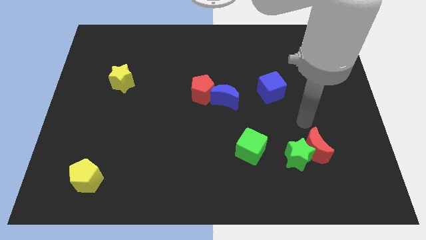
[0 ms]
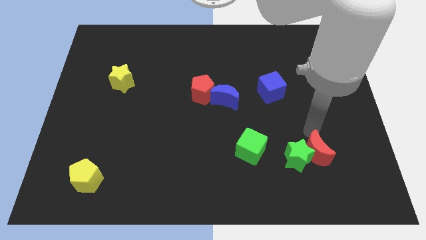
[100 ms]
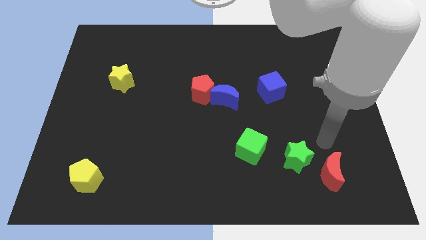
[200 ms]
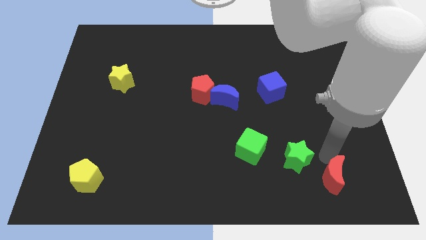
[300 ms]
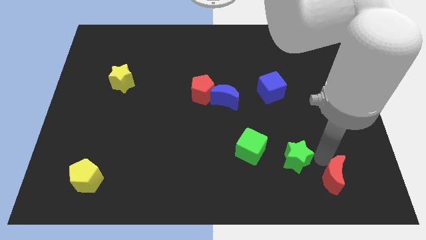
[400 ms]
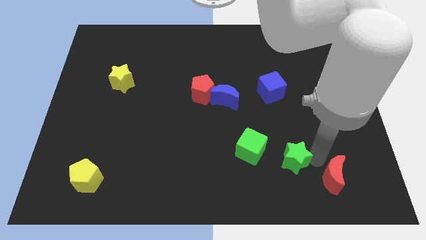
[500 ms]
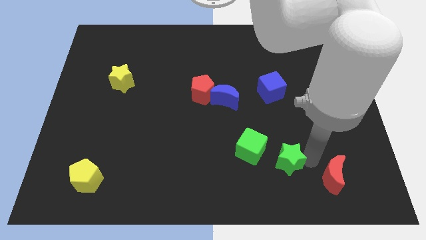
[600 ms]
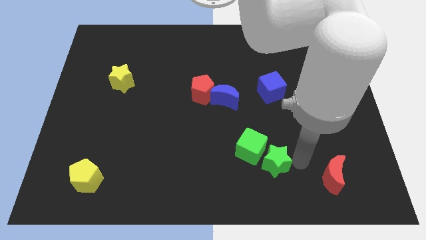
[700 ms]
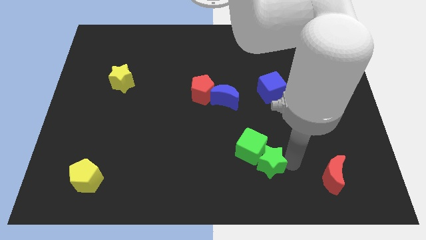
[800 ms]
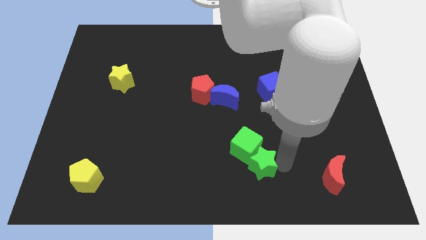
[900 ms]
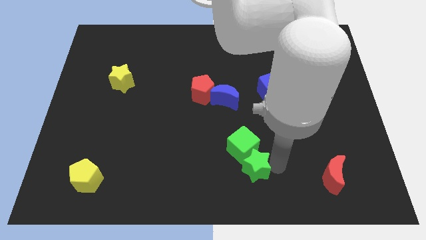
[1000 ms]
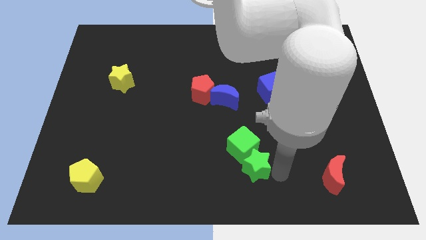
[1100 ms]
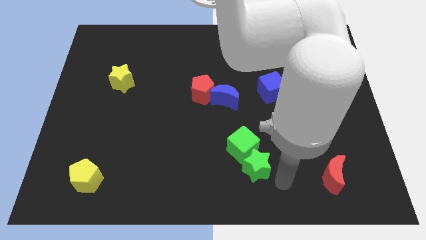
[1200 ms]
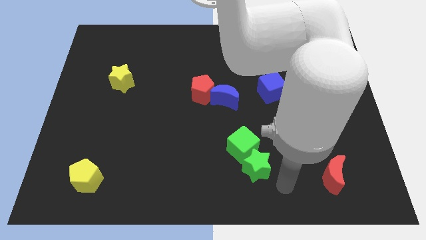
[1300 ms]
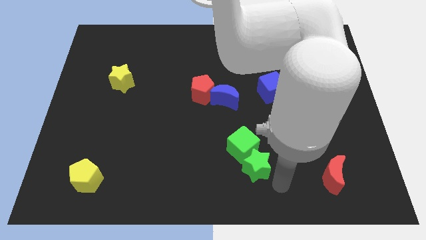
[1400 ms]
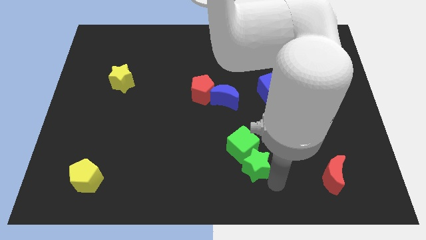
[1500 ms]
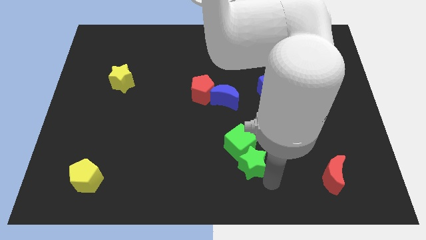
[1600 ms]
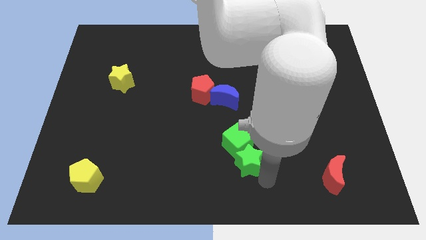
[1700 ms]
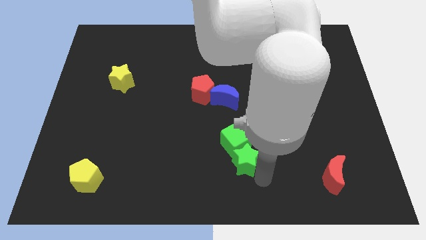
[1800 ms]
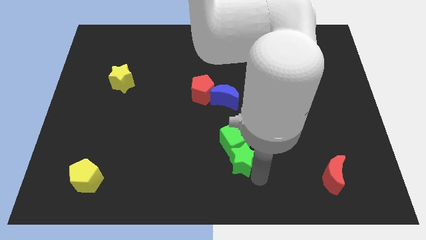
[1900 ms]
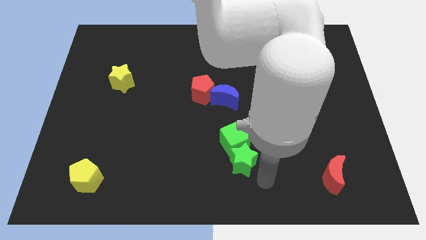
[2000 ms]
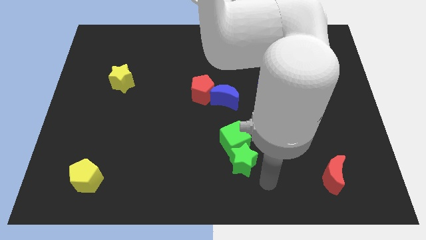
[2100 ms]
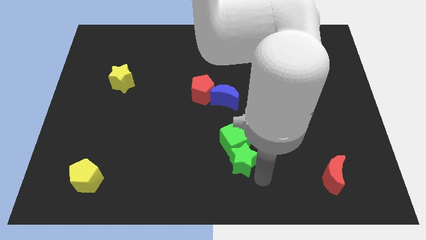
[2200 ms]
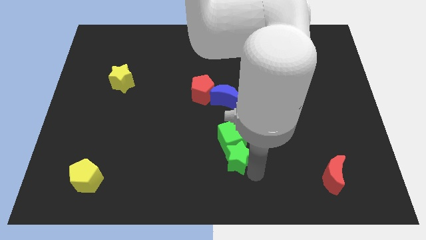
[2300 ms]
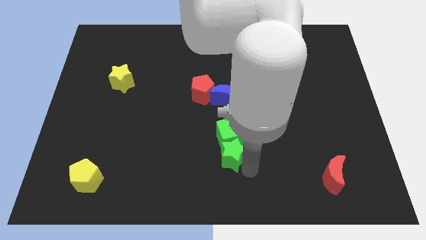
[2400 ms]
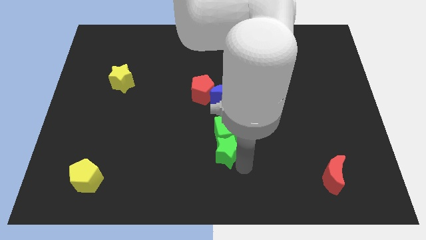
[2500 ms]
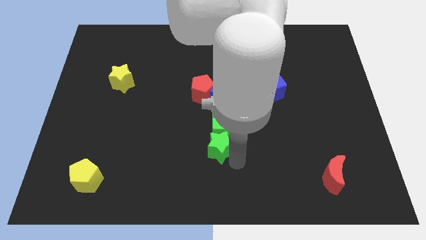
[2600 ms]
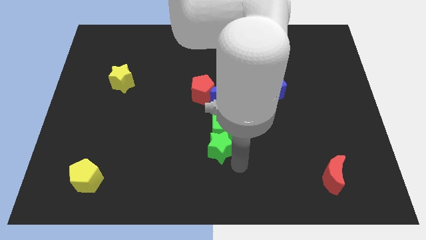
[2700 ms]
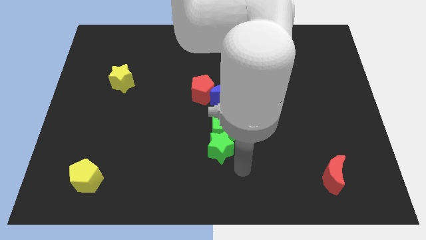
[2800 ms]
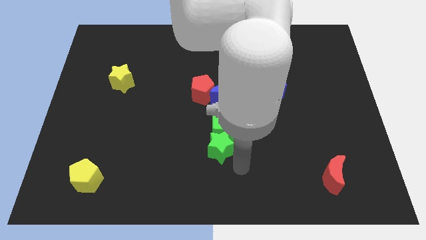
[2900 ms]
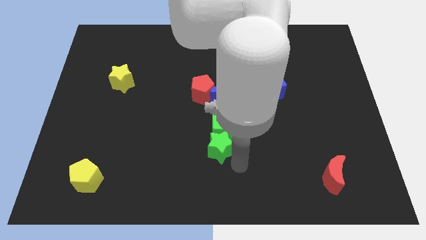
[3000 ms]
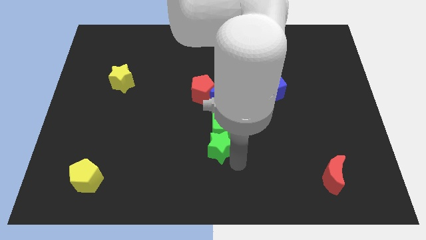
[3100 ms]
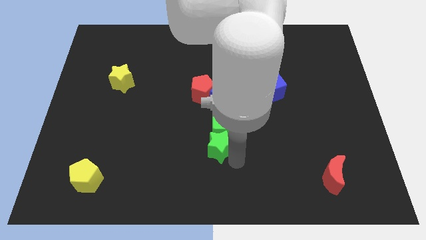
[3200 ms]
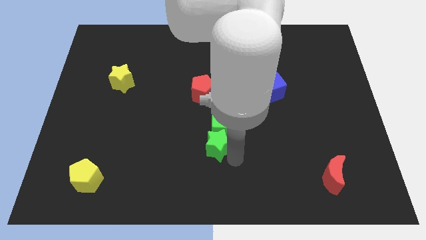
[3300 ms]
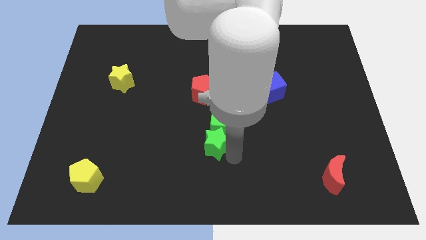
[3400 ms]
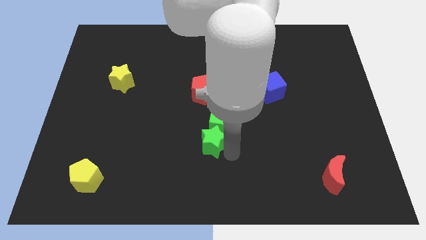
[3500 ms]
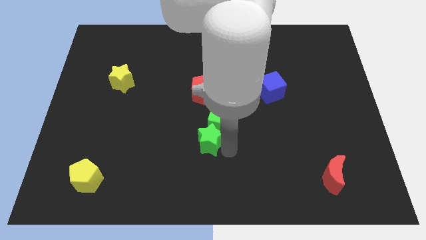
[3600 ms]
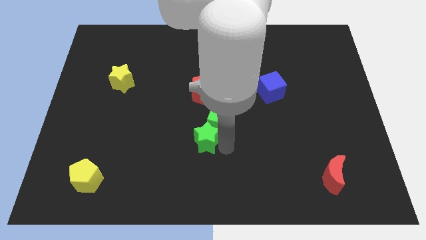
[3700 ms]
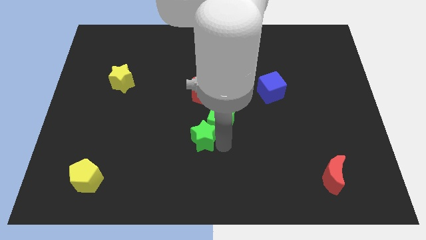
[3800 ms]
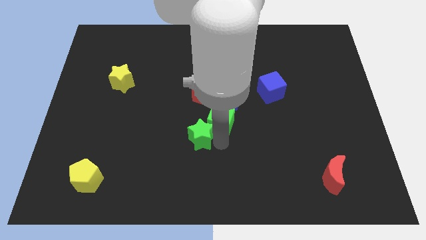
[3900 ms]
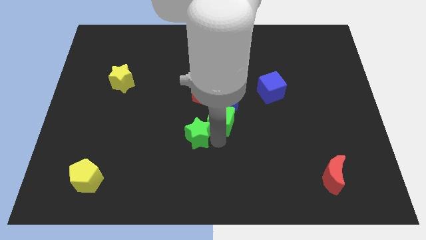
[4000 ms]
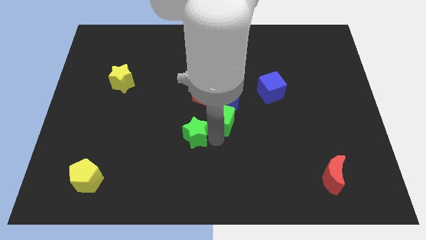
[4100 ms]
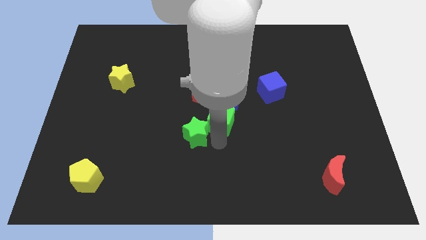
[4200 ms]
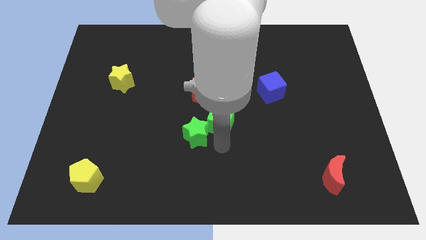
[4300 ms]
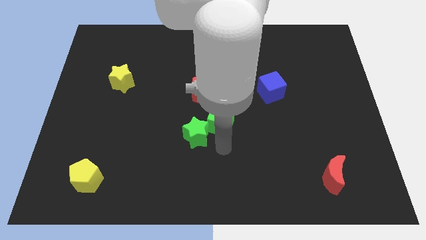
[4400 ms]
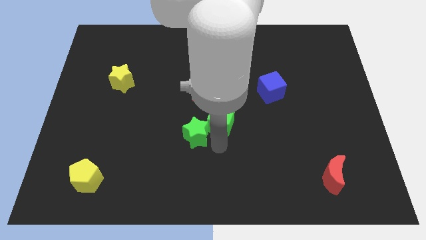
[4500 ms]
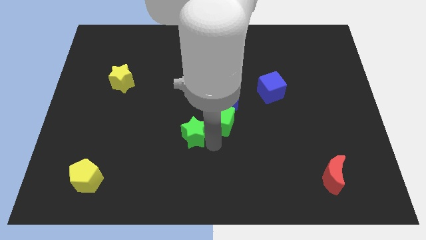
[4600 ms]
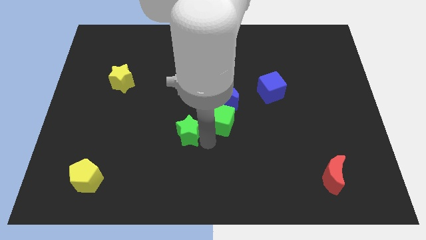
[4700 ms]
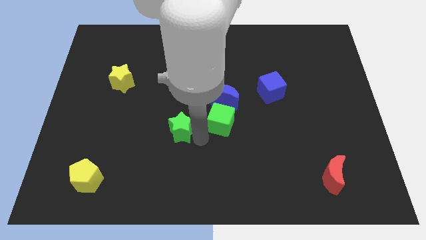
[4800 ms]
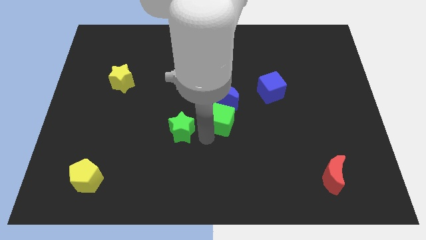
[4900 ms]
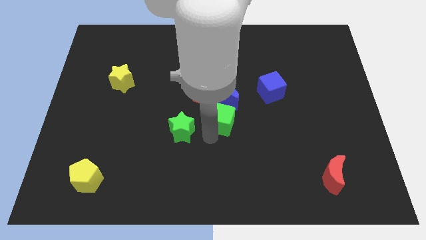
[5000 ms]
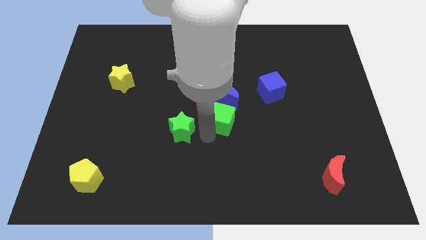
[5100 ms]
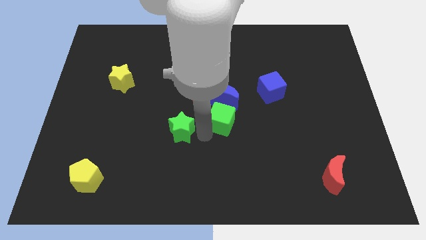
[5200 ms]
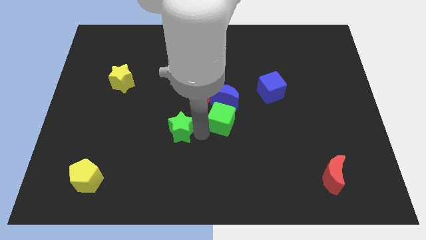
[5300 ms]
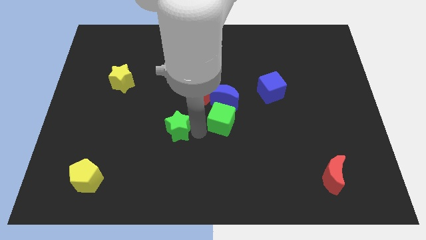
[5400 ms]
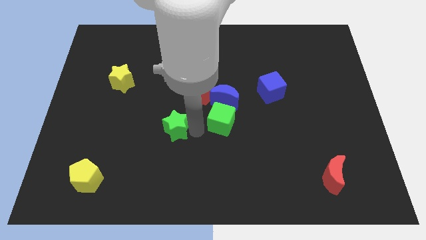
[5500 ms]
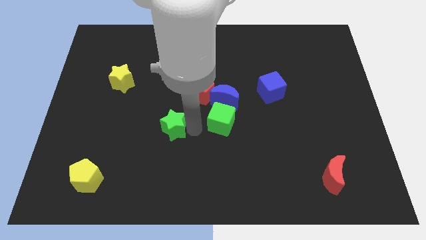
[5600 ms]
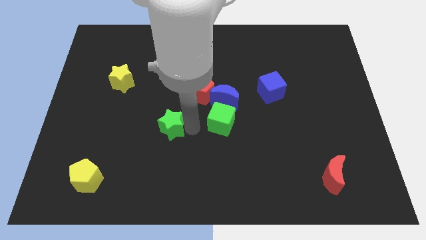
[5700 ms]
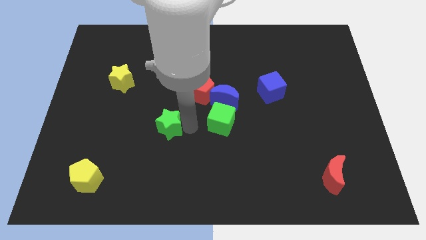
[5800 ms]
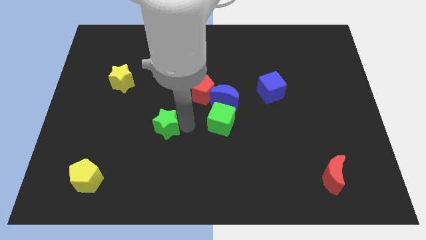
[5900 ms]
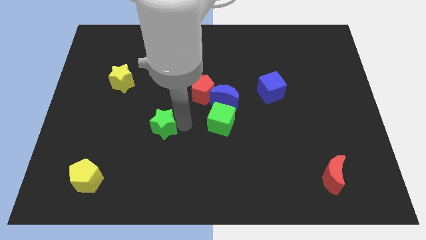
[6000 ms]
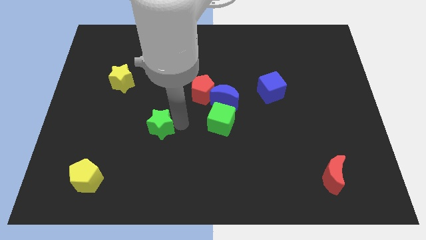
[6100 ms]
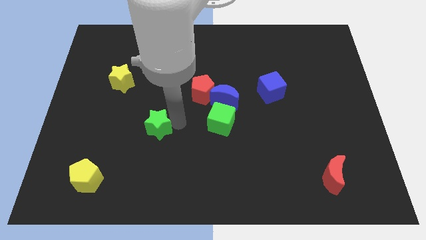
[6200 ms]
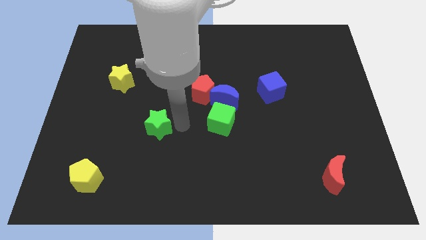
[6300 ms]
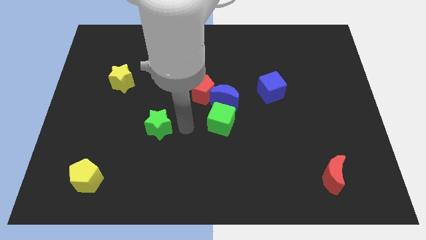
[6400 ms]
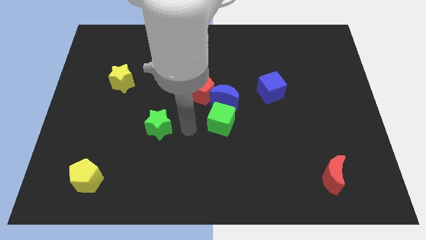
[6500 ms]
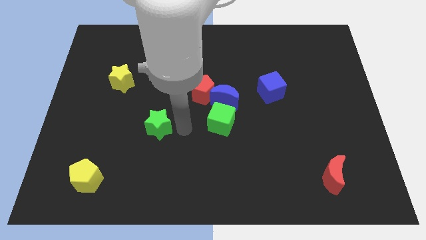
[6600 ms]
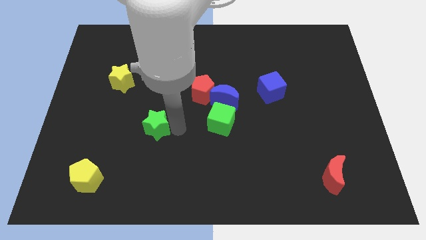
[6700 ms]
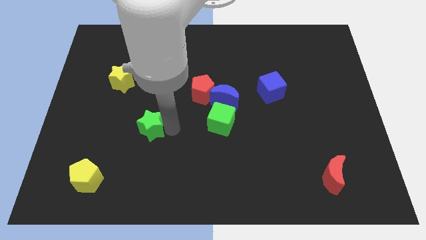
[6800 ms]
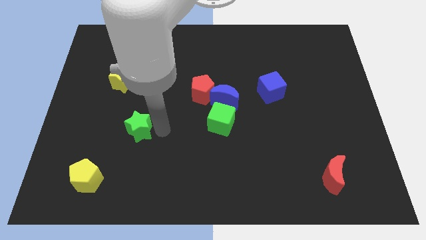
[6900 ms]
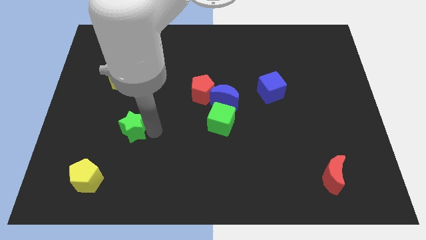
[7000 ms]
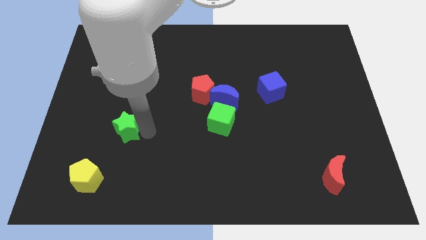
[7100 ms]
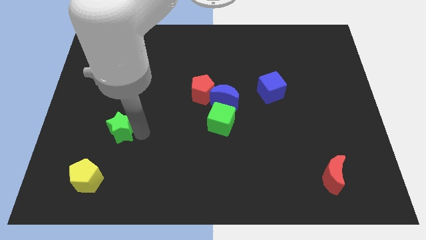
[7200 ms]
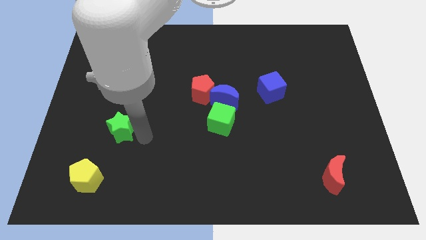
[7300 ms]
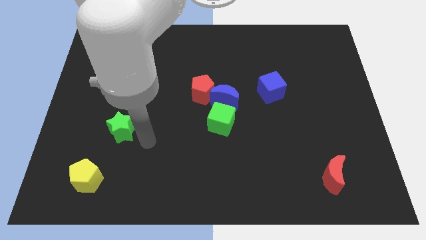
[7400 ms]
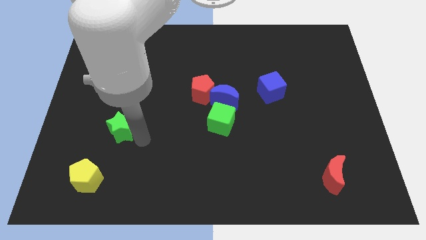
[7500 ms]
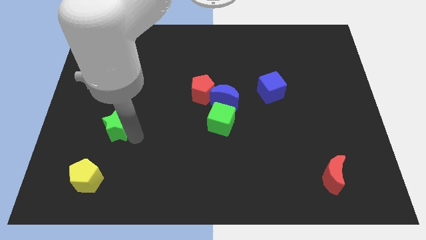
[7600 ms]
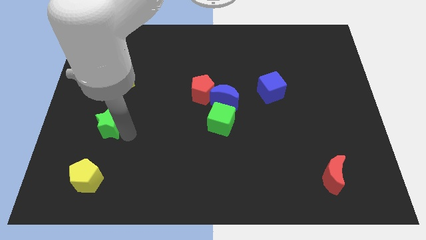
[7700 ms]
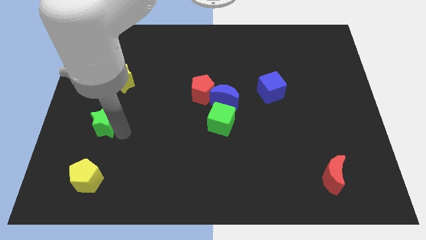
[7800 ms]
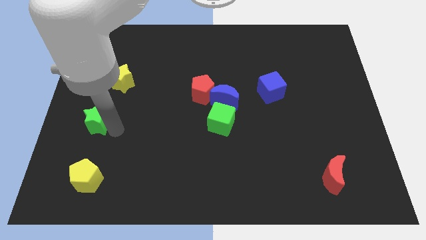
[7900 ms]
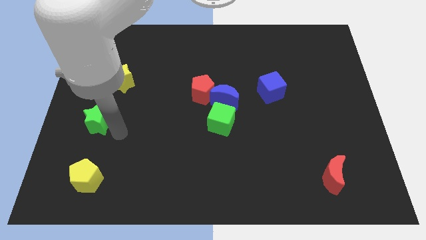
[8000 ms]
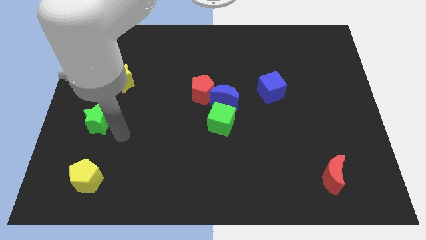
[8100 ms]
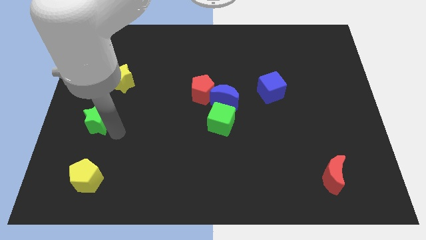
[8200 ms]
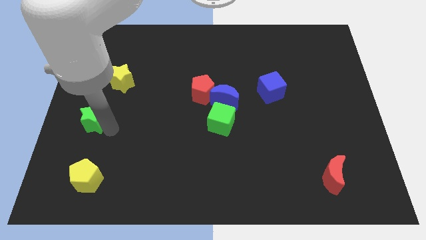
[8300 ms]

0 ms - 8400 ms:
move the green star to the left side
